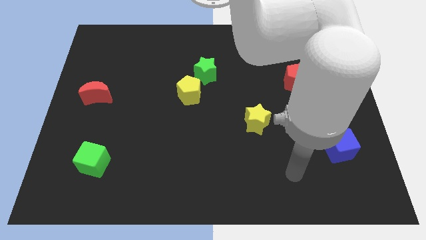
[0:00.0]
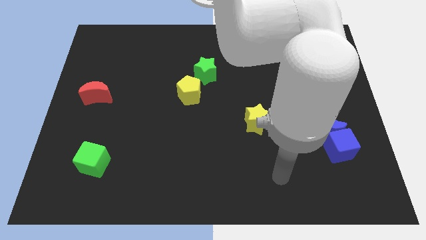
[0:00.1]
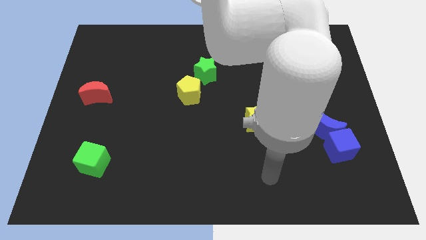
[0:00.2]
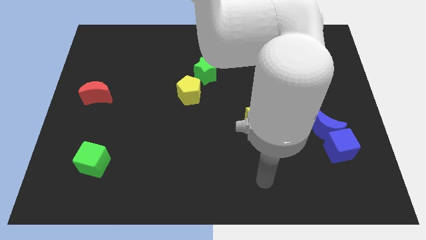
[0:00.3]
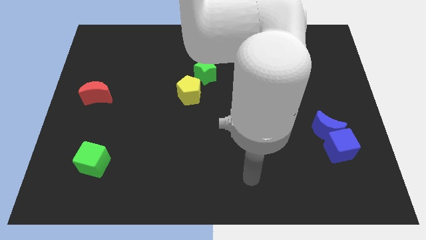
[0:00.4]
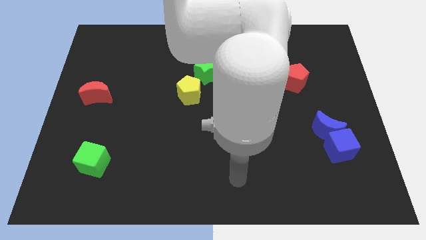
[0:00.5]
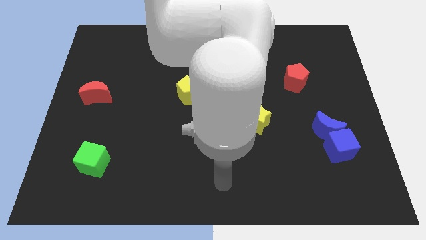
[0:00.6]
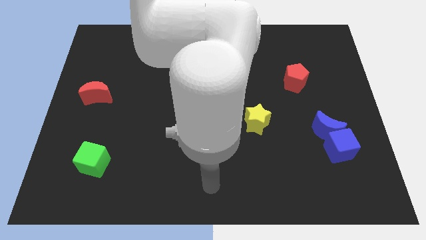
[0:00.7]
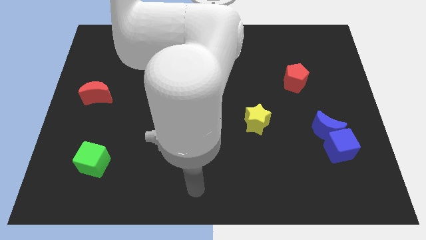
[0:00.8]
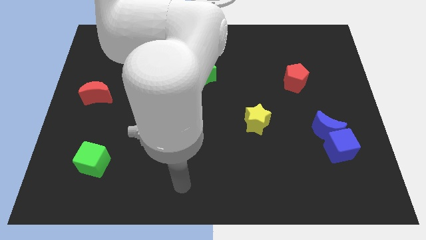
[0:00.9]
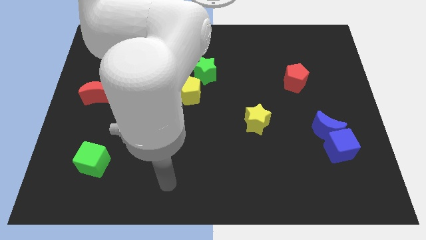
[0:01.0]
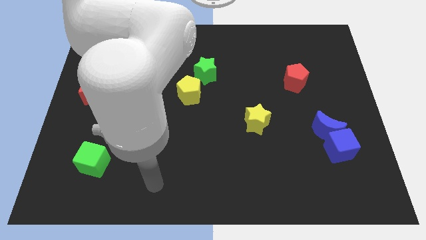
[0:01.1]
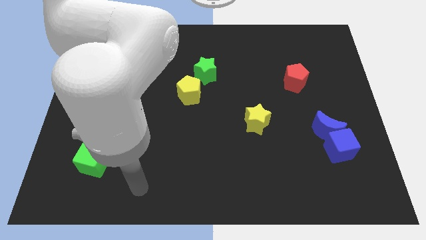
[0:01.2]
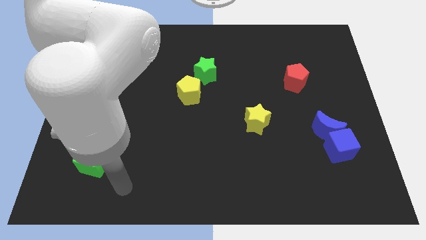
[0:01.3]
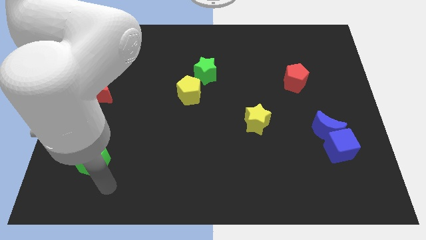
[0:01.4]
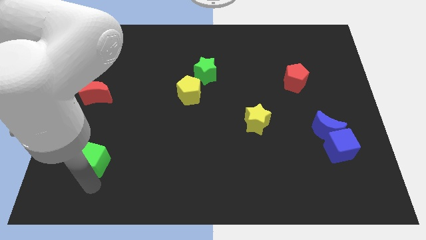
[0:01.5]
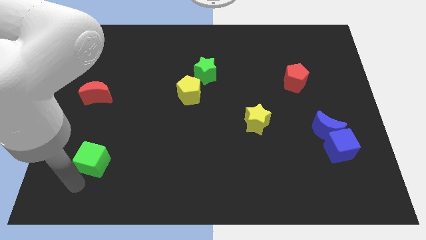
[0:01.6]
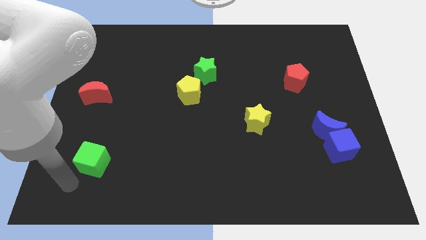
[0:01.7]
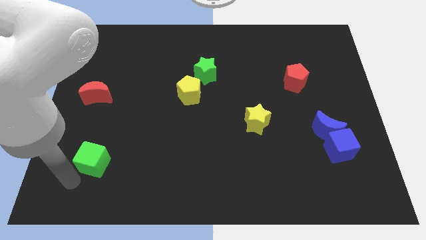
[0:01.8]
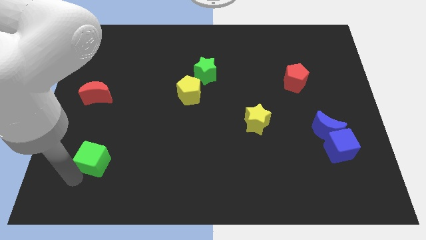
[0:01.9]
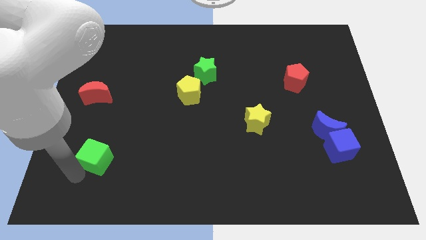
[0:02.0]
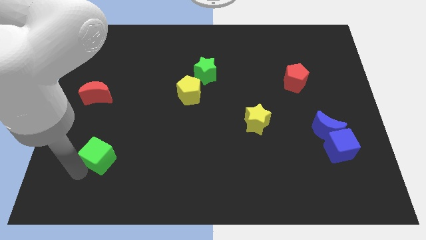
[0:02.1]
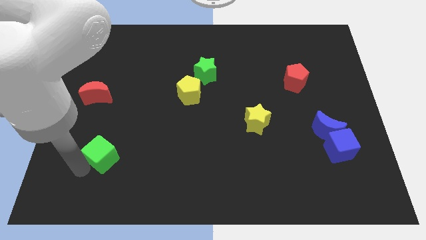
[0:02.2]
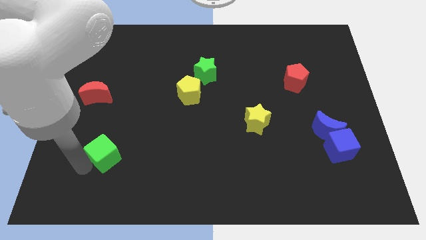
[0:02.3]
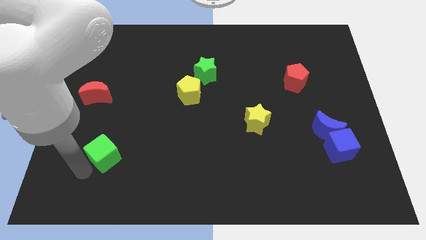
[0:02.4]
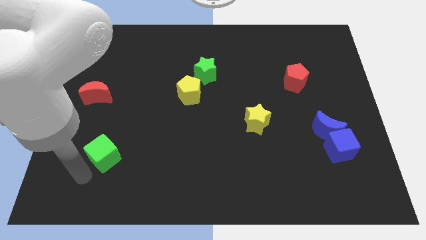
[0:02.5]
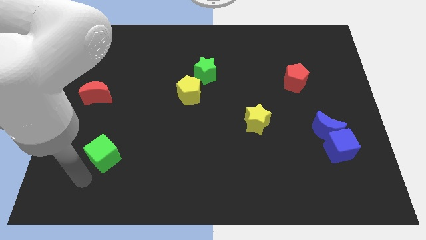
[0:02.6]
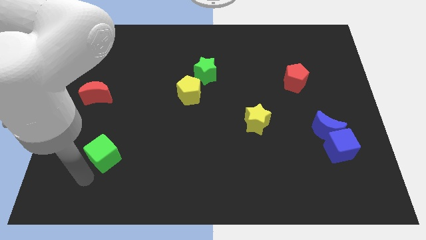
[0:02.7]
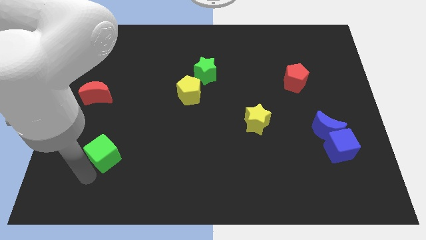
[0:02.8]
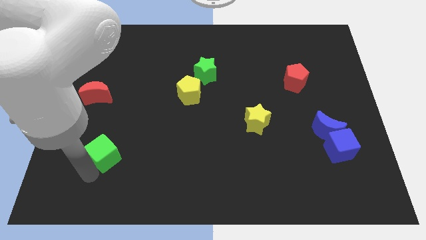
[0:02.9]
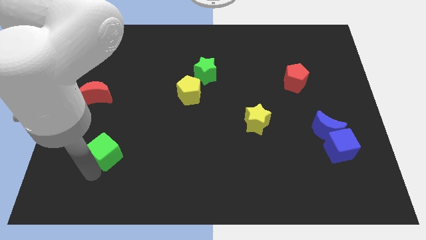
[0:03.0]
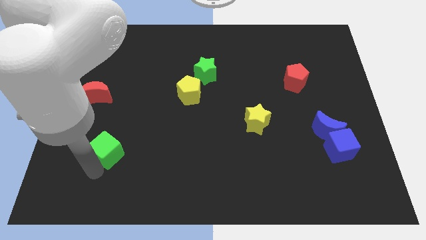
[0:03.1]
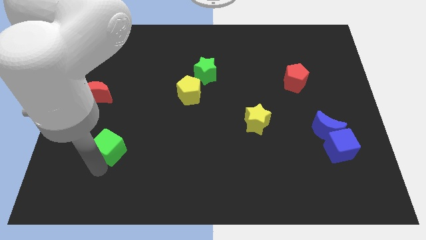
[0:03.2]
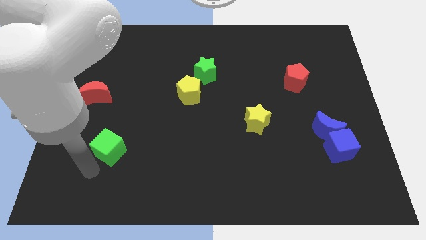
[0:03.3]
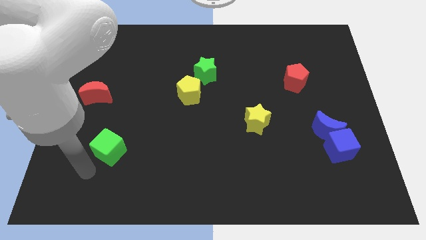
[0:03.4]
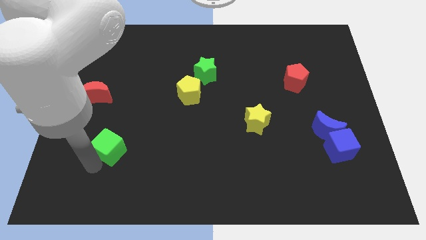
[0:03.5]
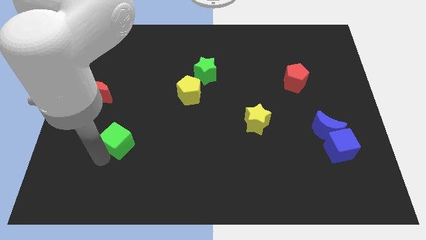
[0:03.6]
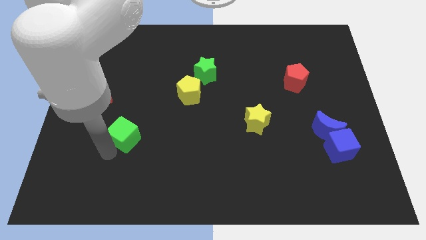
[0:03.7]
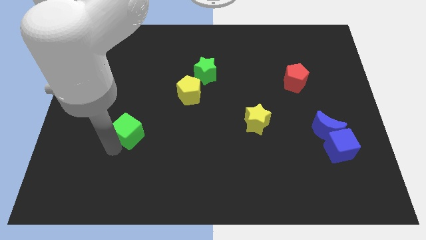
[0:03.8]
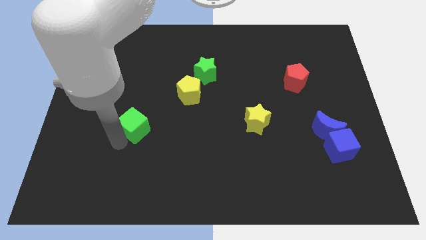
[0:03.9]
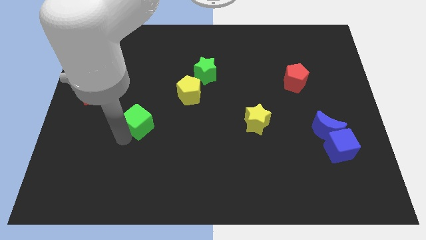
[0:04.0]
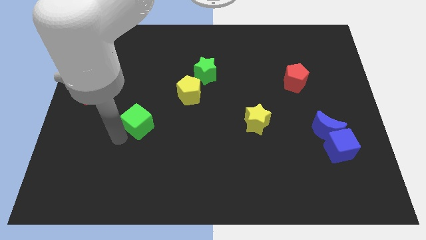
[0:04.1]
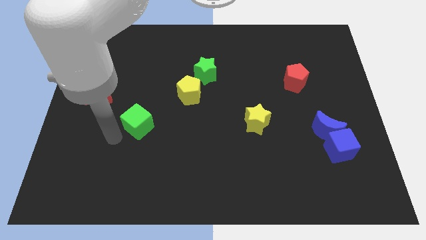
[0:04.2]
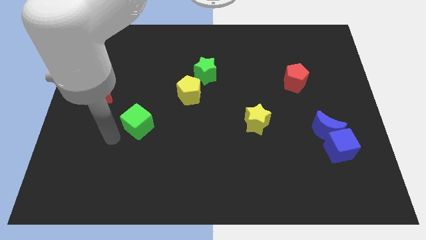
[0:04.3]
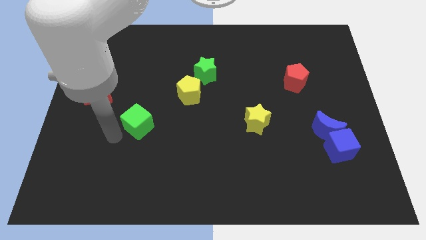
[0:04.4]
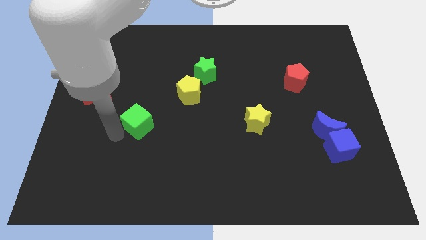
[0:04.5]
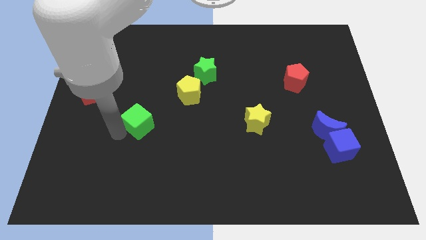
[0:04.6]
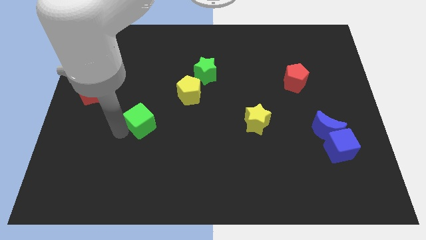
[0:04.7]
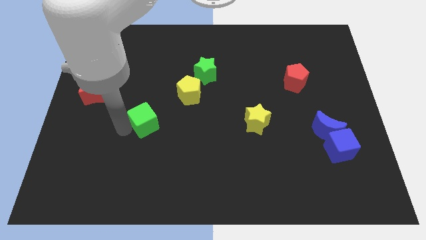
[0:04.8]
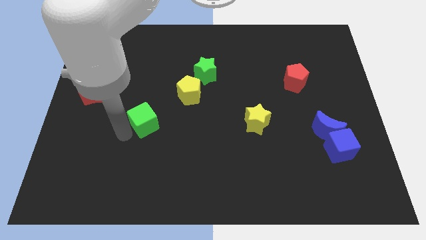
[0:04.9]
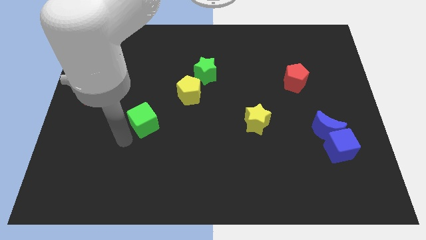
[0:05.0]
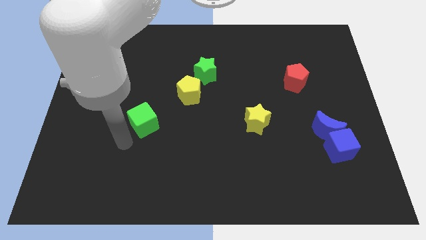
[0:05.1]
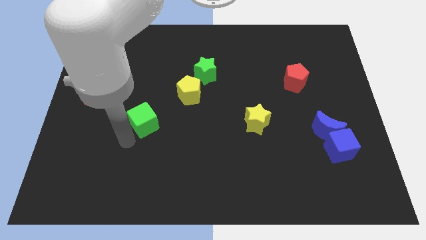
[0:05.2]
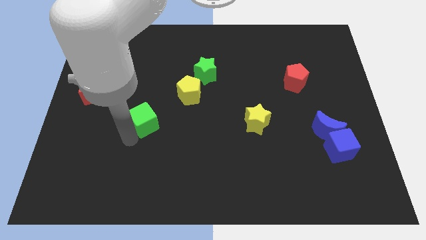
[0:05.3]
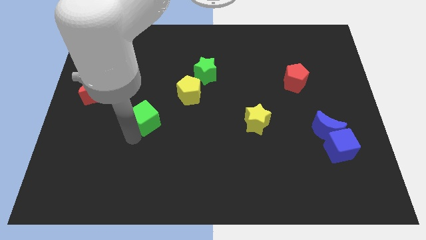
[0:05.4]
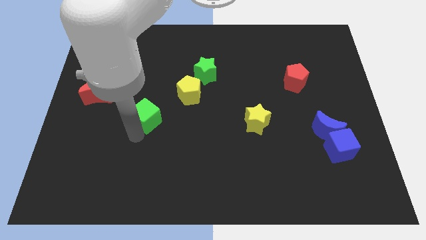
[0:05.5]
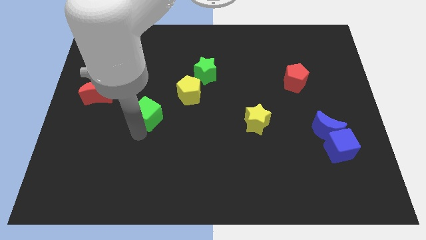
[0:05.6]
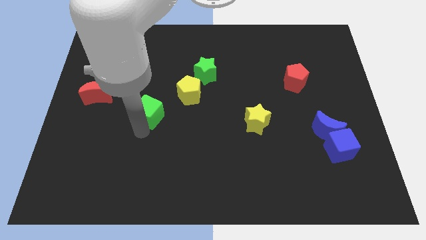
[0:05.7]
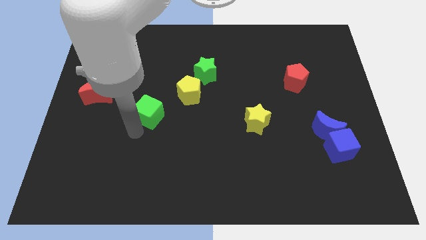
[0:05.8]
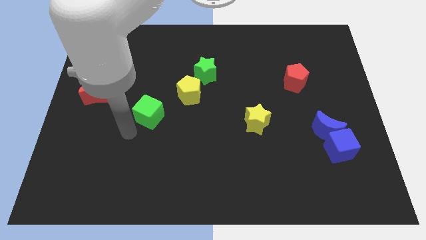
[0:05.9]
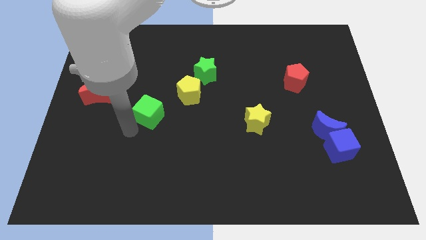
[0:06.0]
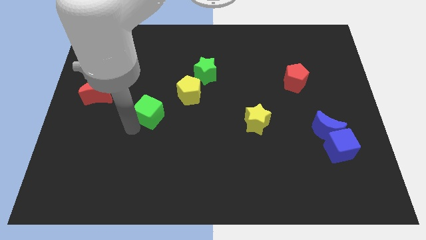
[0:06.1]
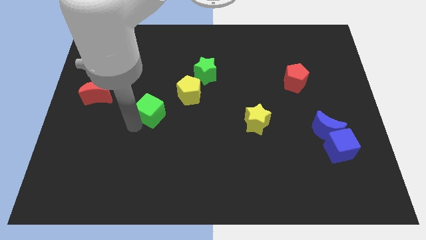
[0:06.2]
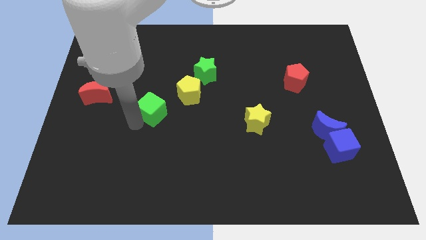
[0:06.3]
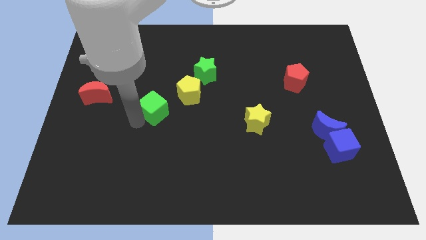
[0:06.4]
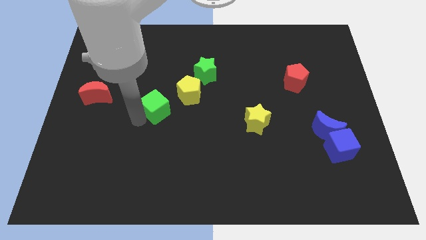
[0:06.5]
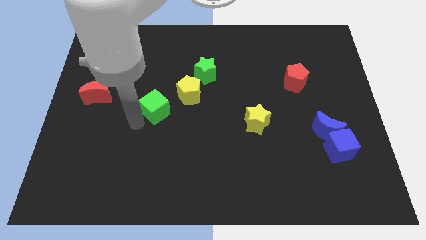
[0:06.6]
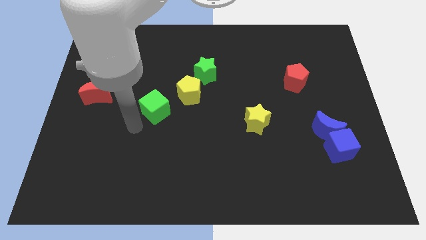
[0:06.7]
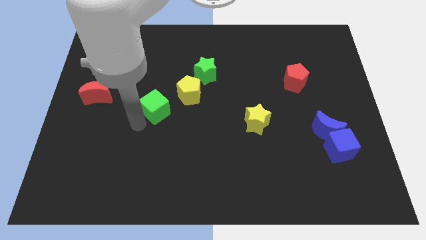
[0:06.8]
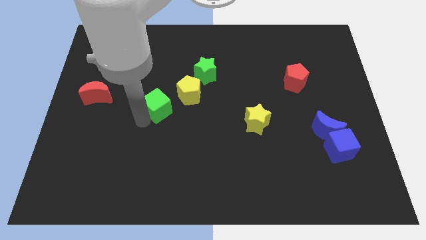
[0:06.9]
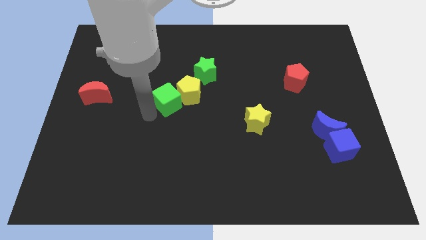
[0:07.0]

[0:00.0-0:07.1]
put the green cube towards the yellow pentagon
